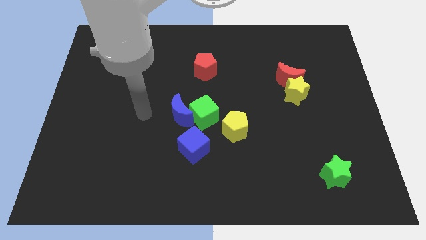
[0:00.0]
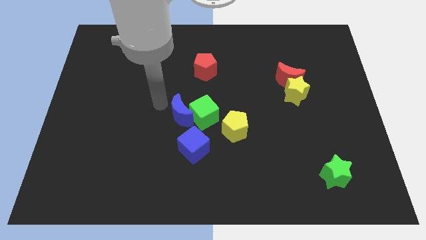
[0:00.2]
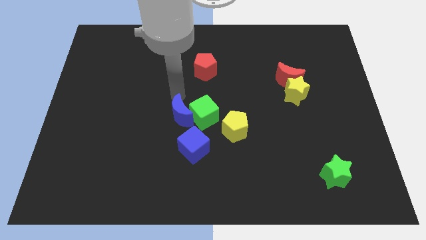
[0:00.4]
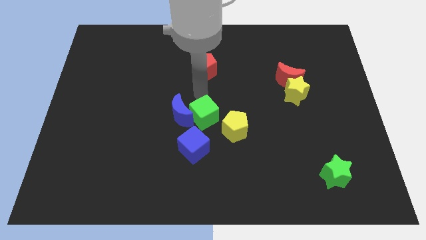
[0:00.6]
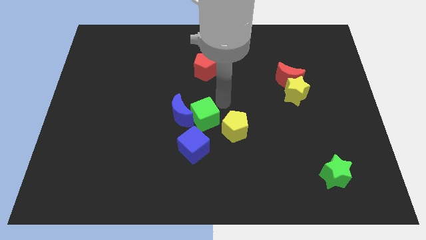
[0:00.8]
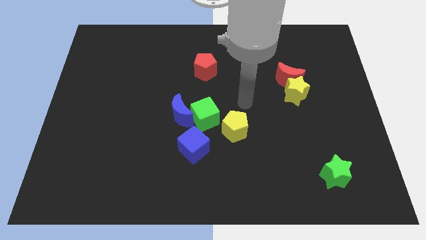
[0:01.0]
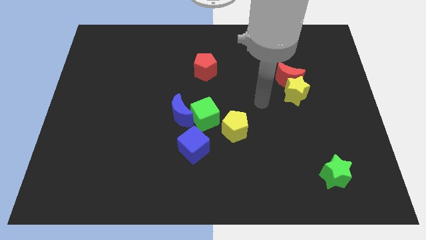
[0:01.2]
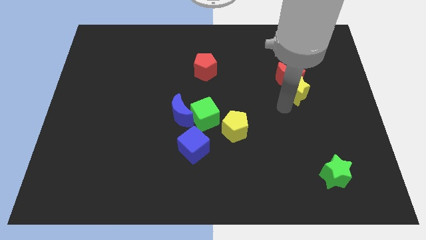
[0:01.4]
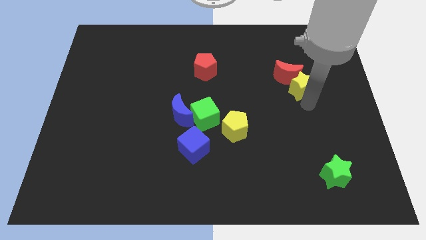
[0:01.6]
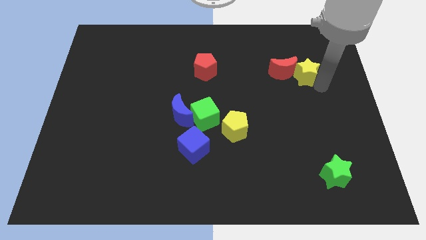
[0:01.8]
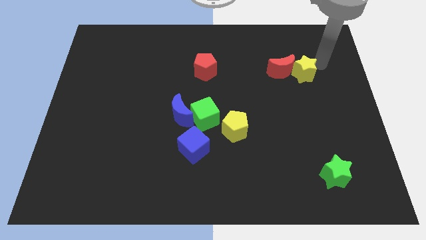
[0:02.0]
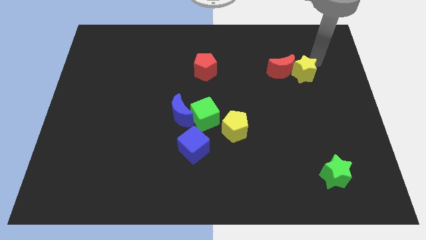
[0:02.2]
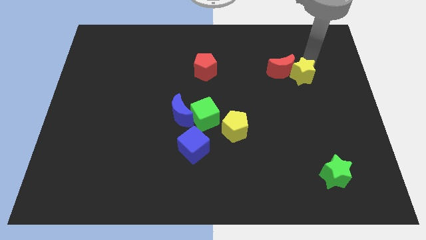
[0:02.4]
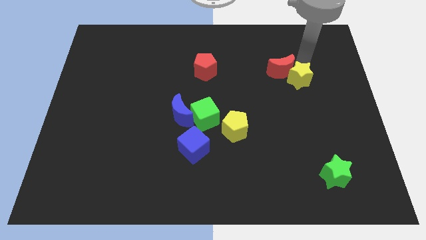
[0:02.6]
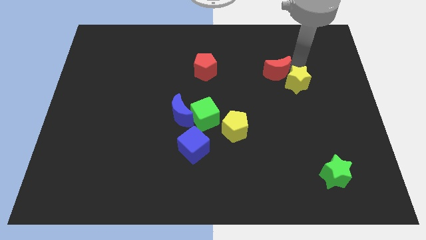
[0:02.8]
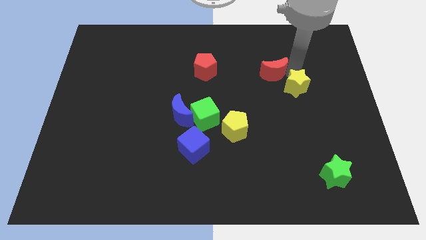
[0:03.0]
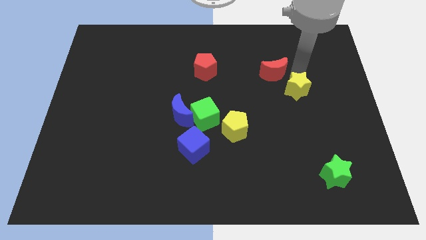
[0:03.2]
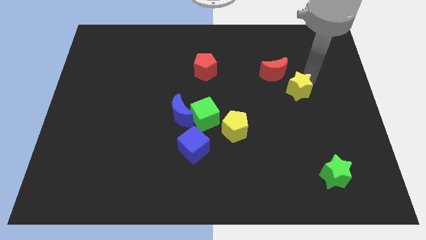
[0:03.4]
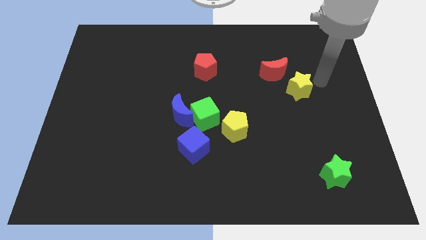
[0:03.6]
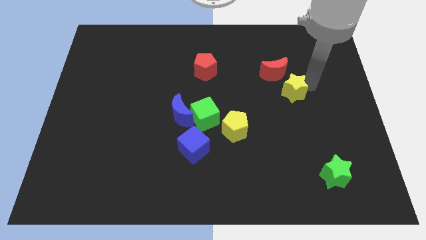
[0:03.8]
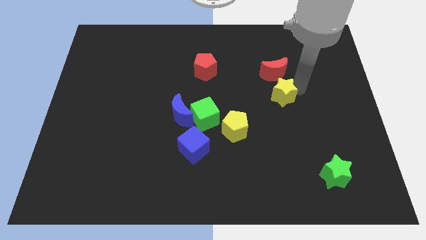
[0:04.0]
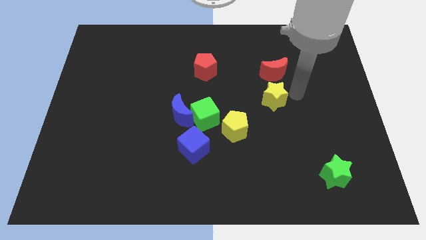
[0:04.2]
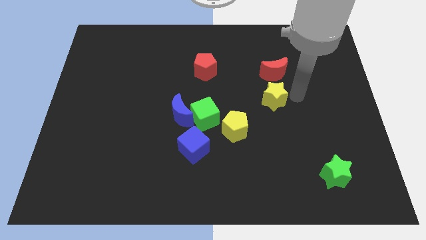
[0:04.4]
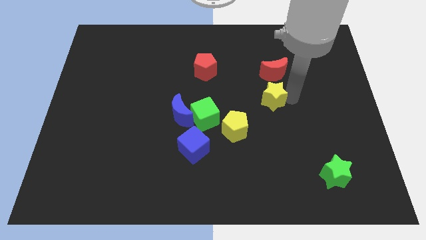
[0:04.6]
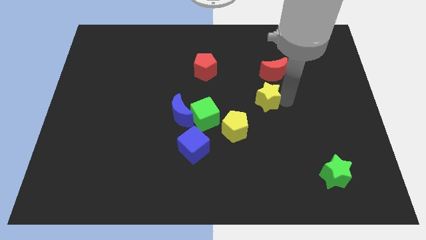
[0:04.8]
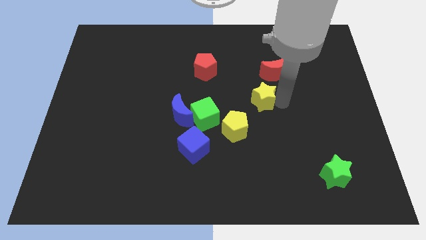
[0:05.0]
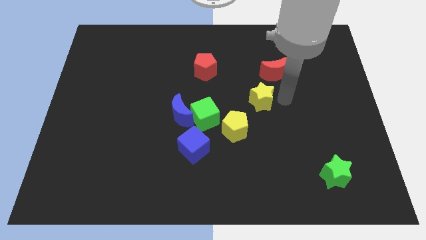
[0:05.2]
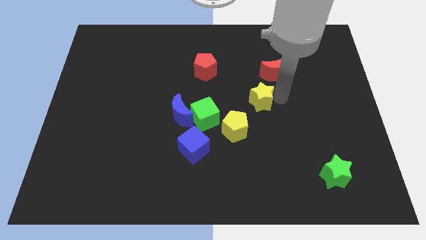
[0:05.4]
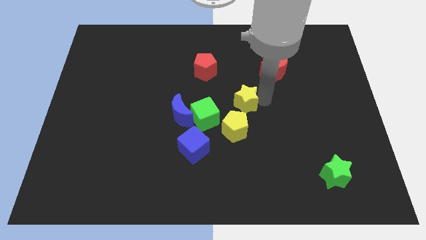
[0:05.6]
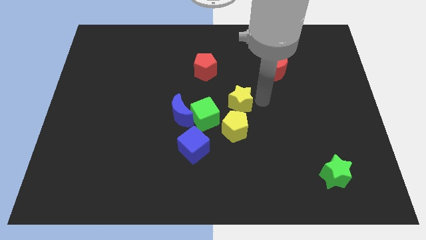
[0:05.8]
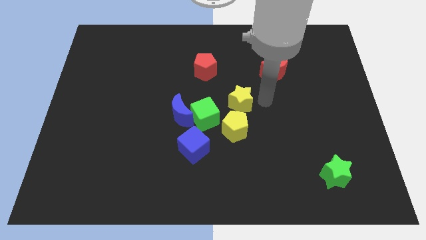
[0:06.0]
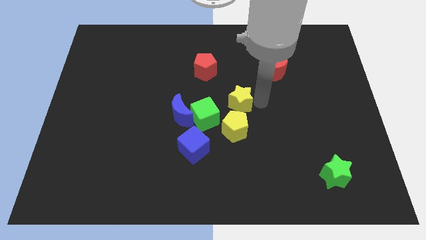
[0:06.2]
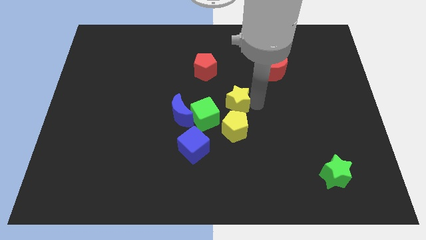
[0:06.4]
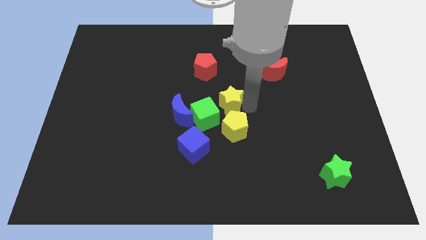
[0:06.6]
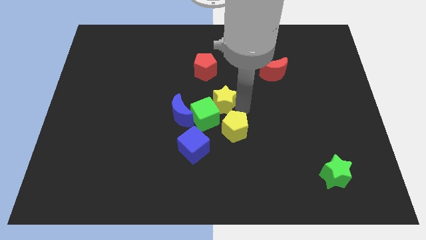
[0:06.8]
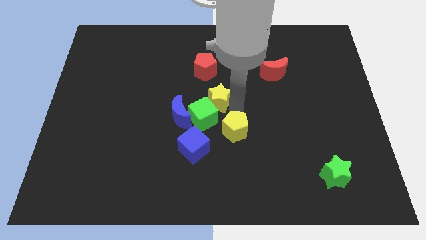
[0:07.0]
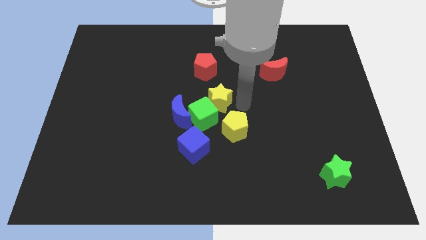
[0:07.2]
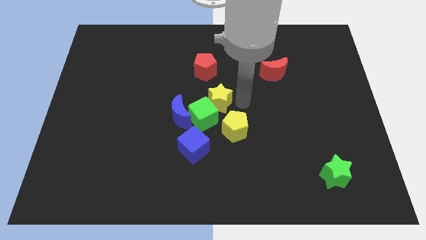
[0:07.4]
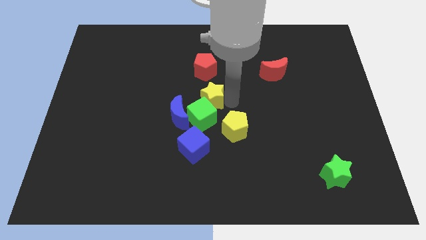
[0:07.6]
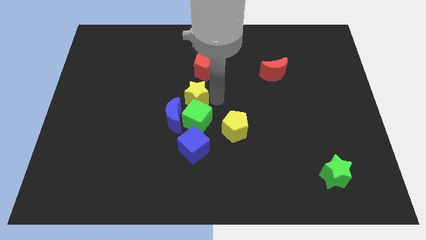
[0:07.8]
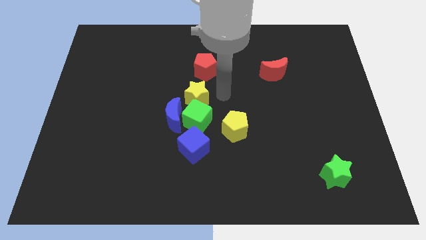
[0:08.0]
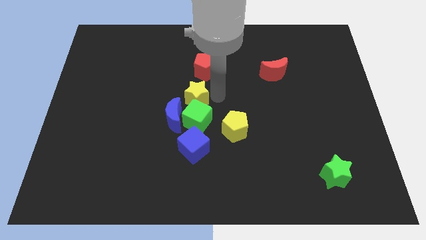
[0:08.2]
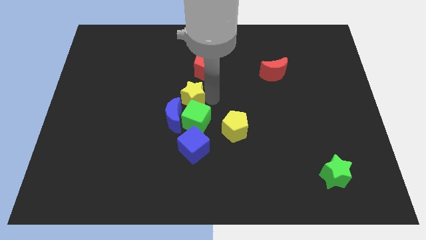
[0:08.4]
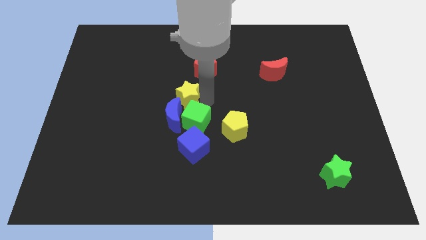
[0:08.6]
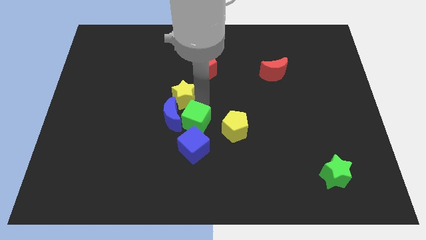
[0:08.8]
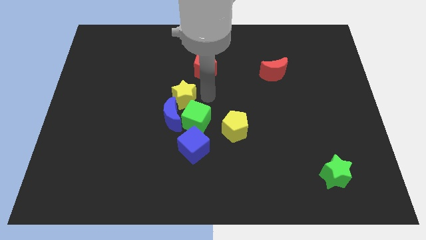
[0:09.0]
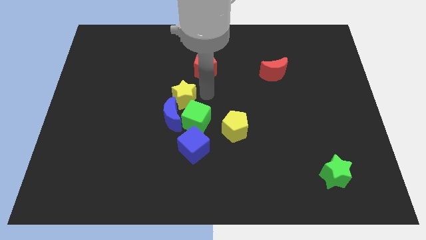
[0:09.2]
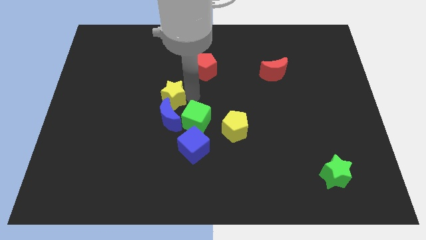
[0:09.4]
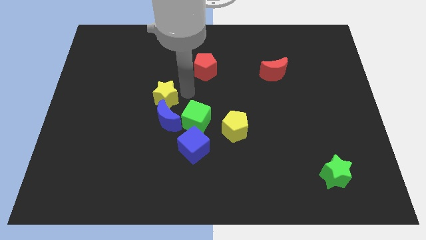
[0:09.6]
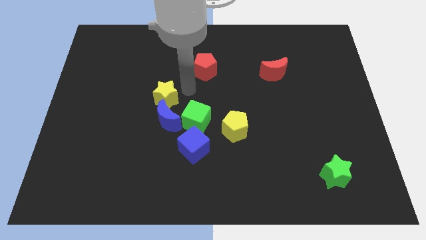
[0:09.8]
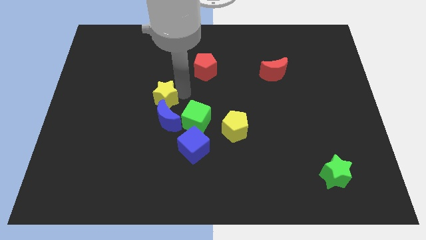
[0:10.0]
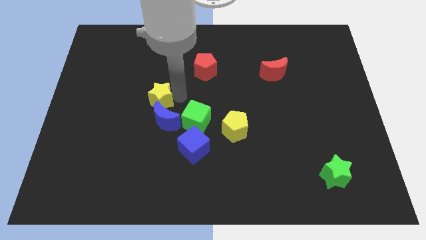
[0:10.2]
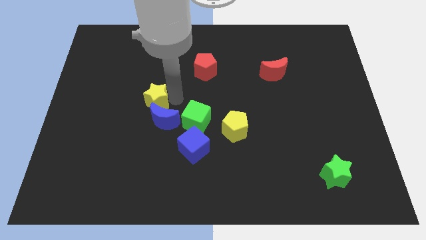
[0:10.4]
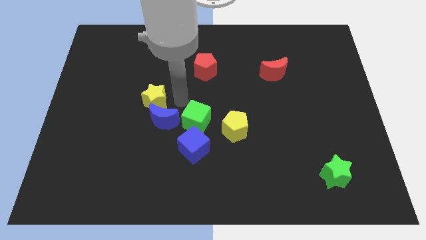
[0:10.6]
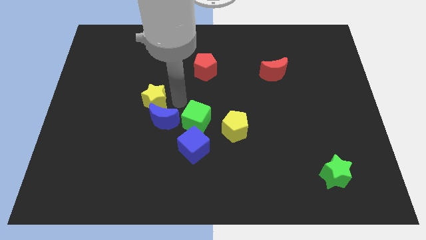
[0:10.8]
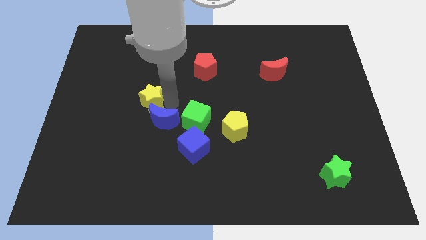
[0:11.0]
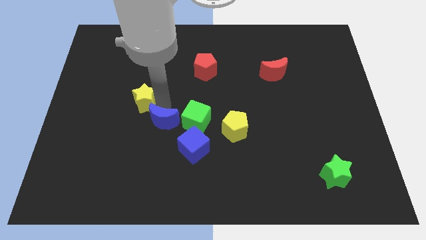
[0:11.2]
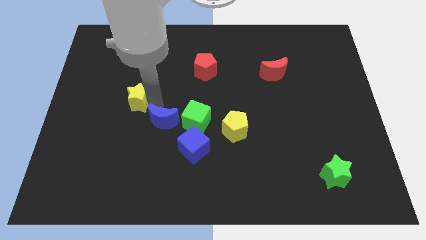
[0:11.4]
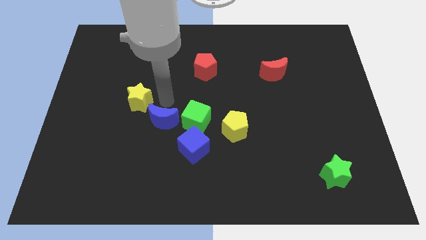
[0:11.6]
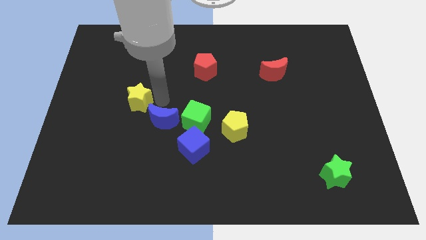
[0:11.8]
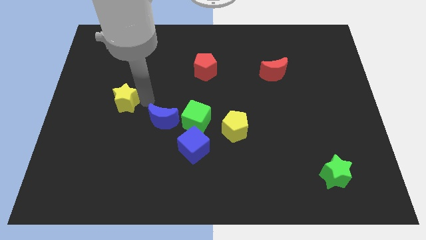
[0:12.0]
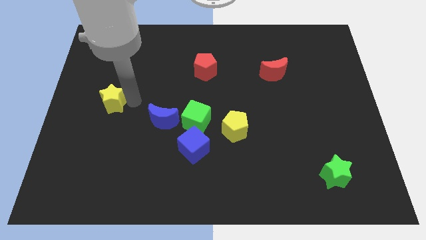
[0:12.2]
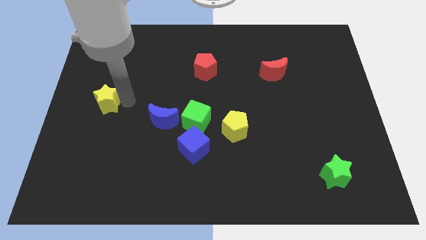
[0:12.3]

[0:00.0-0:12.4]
put the yellow star to the left side
